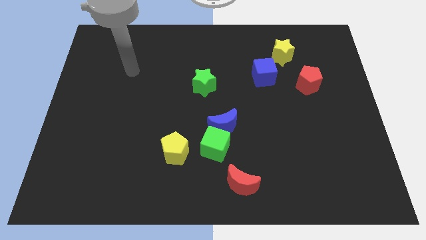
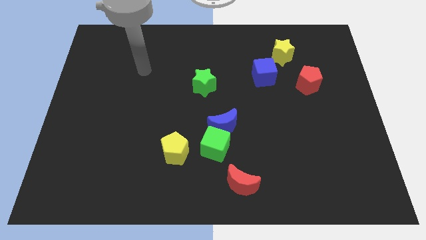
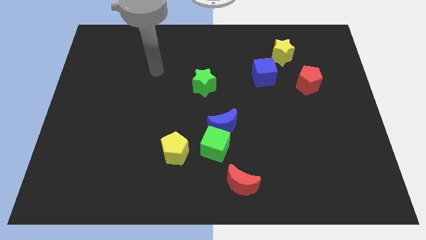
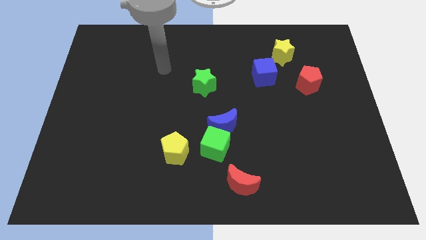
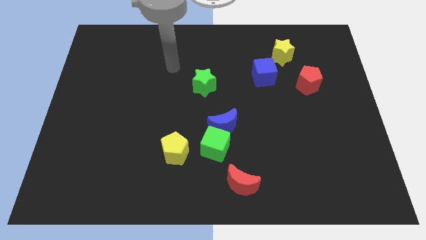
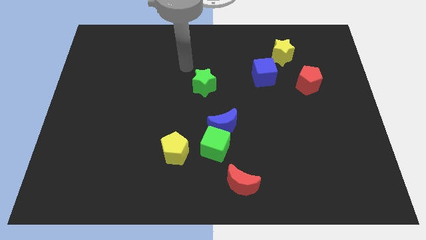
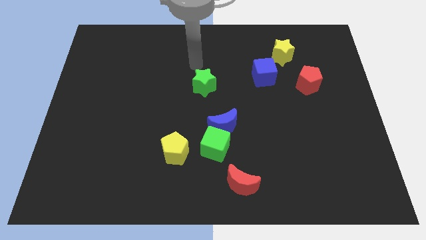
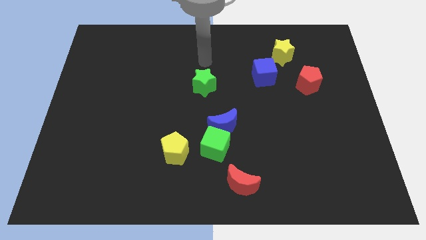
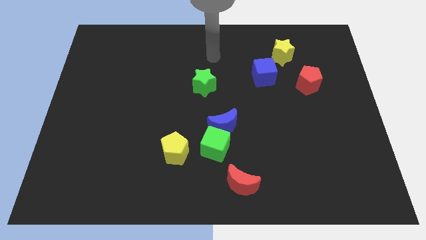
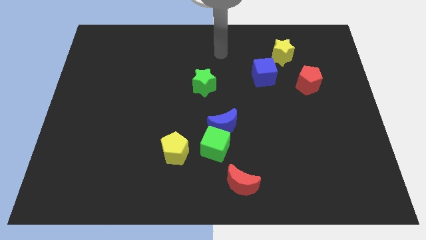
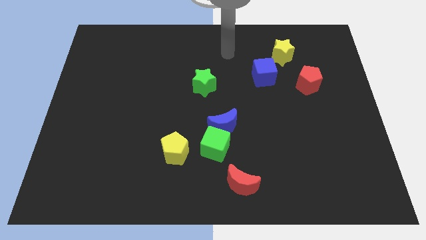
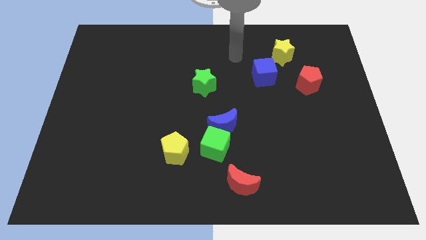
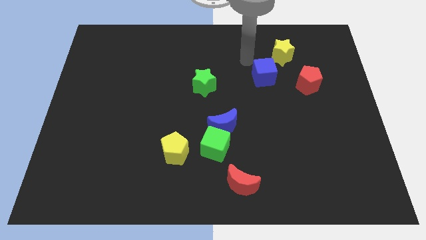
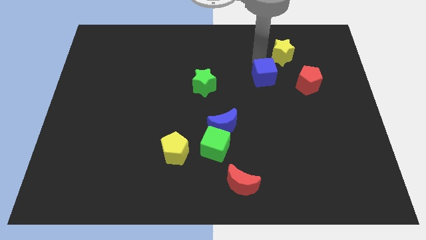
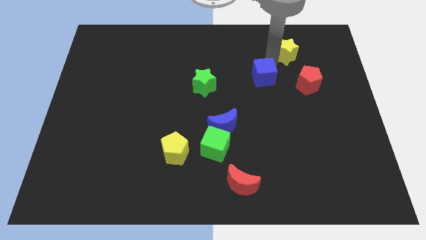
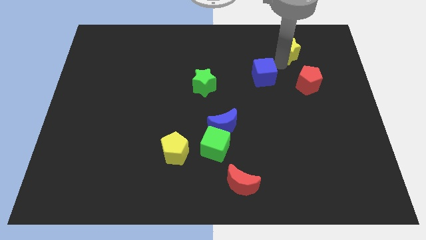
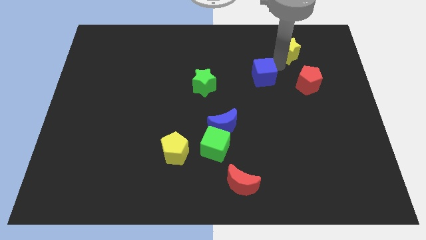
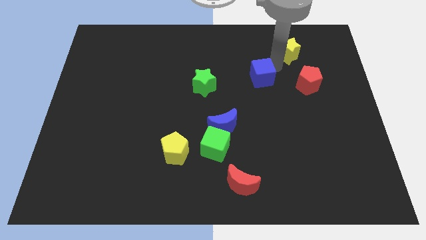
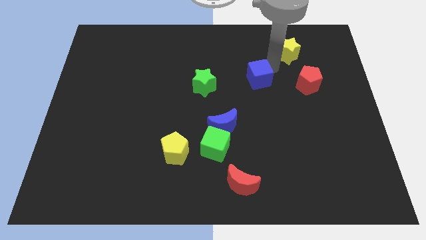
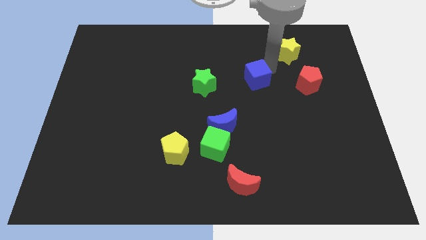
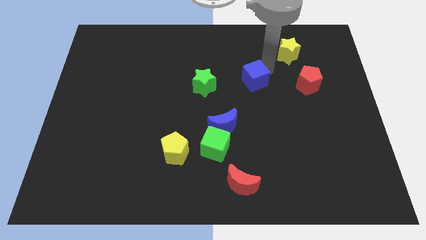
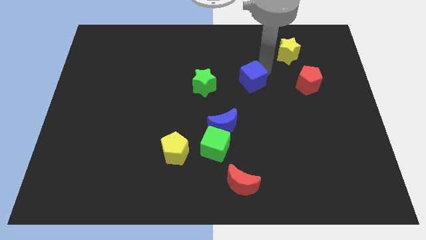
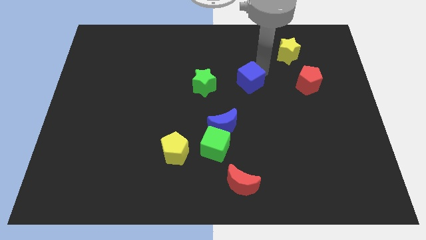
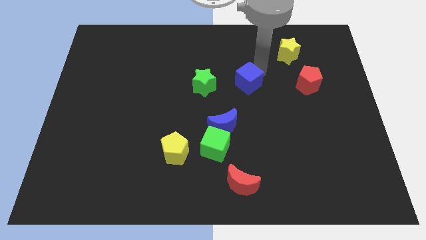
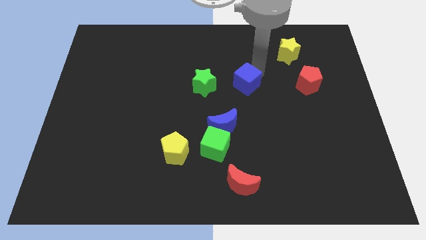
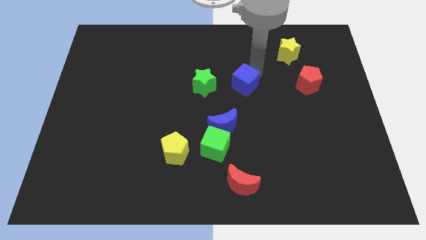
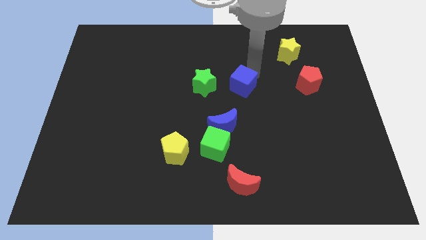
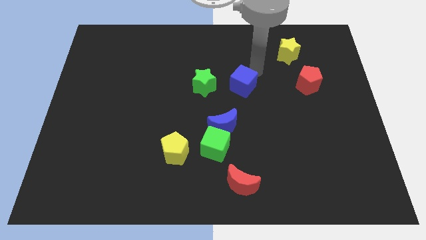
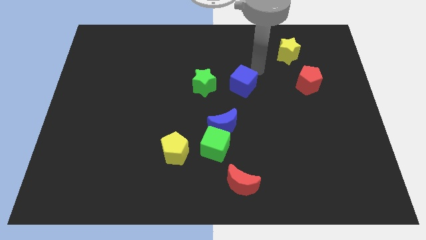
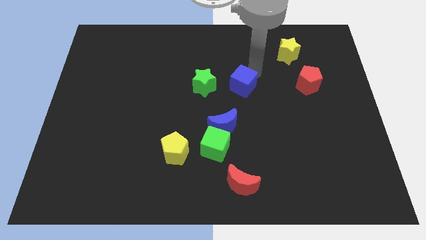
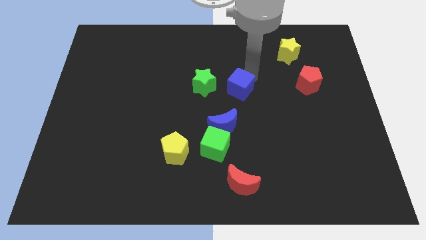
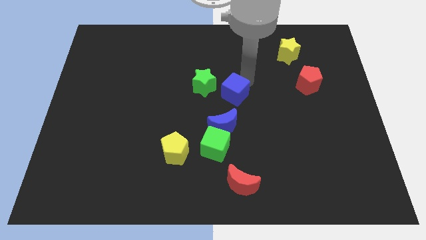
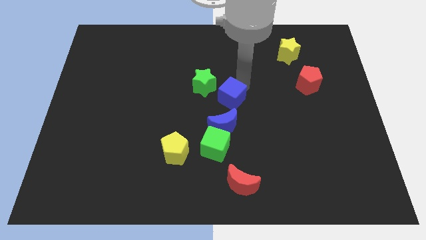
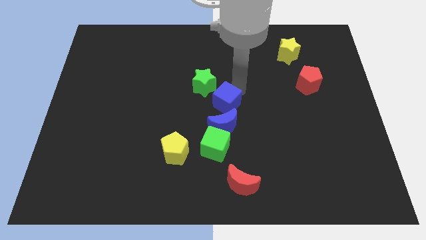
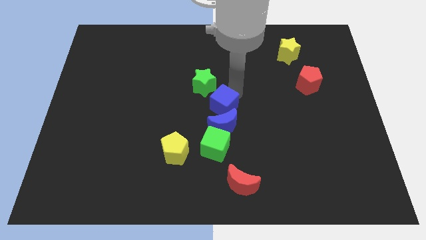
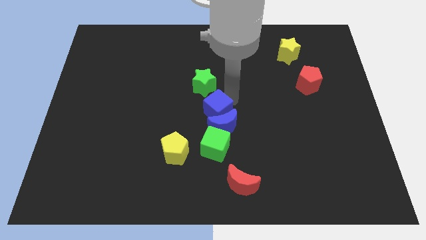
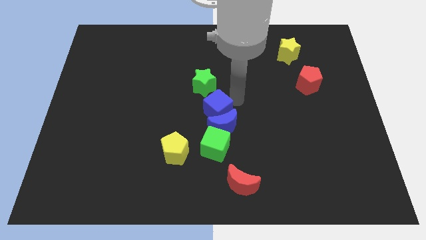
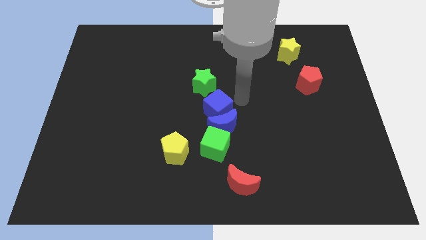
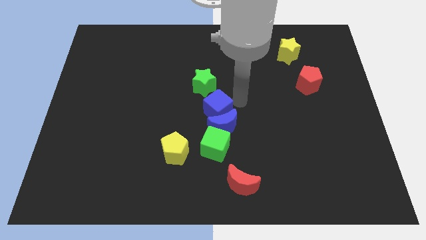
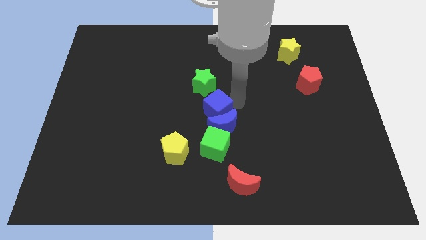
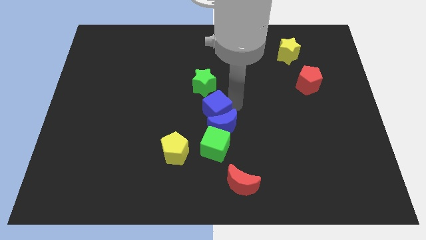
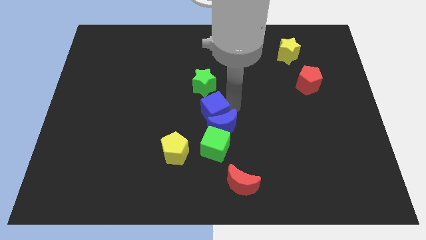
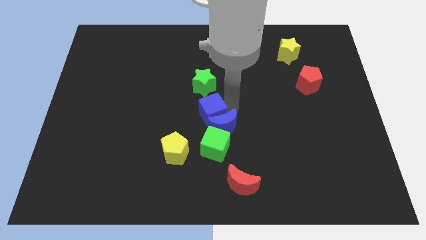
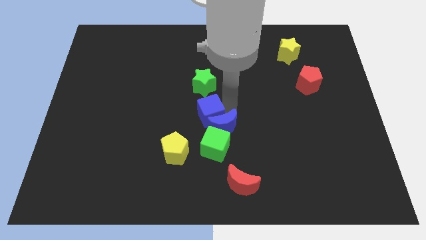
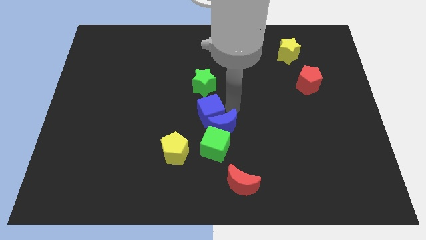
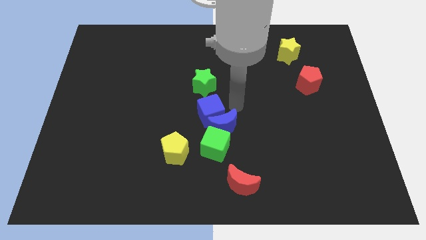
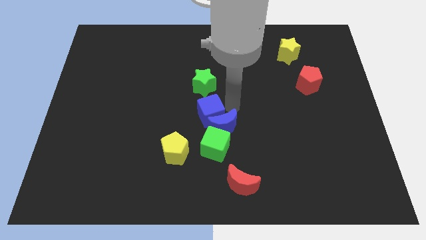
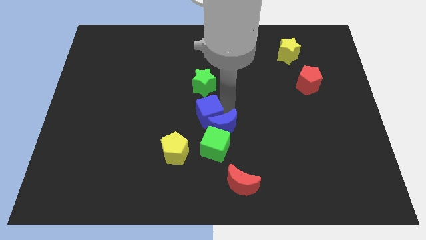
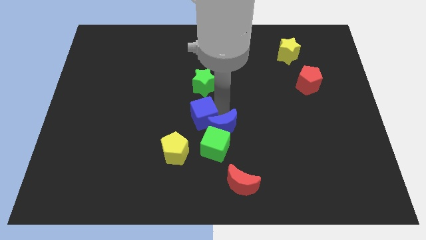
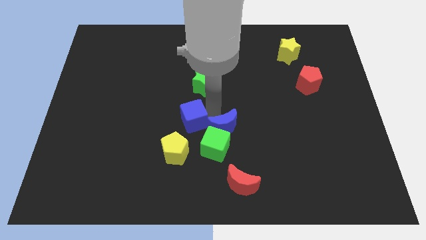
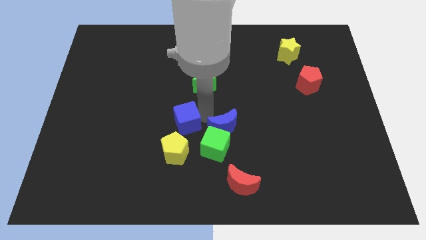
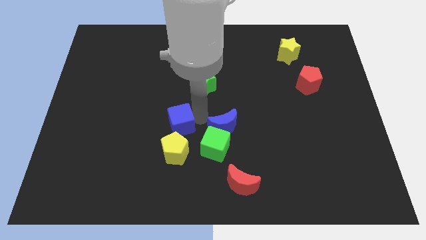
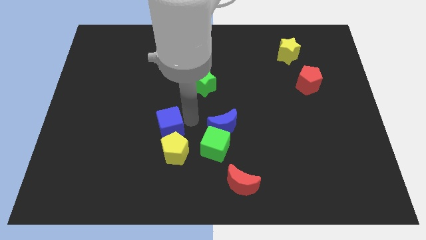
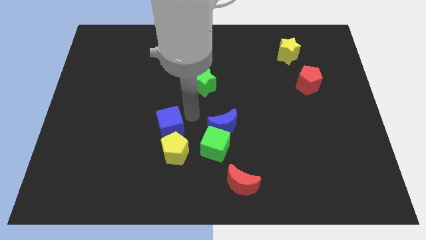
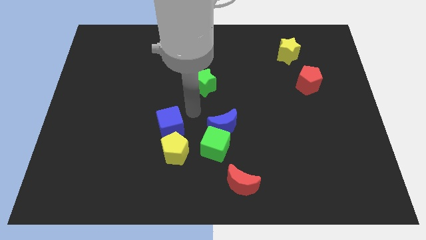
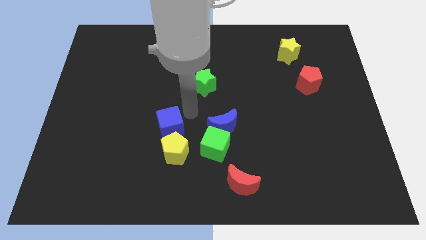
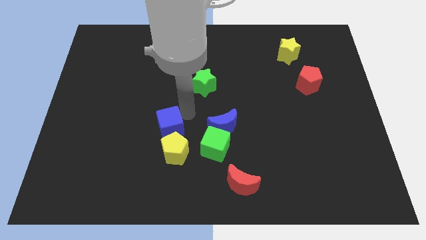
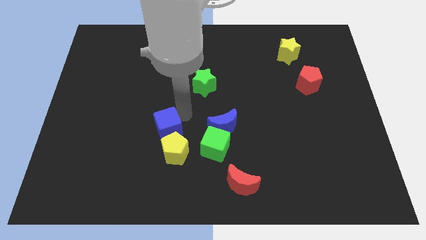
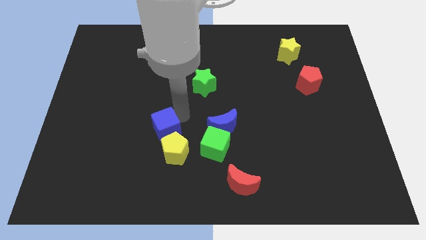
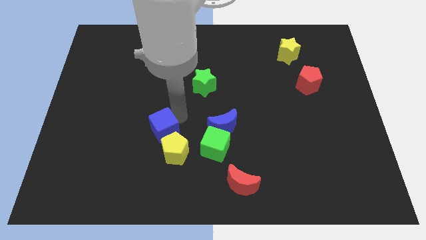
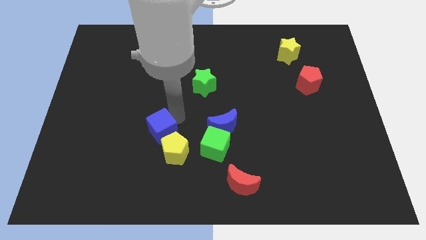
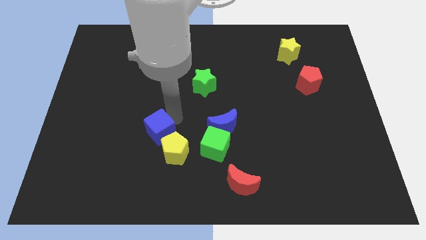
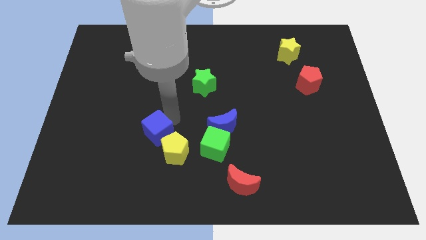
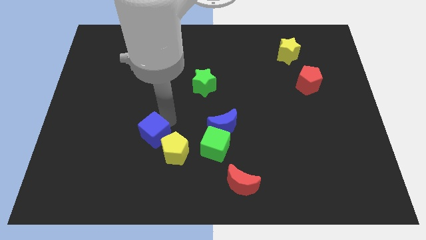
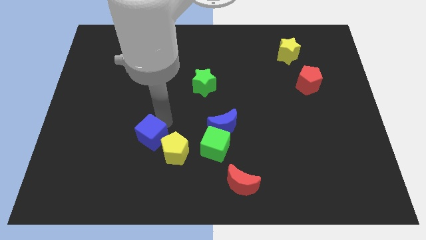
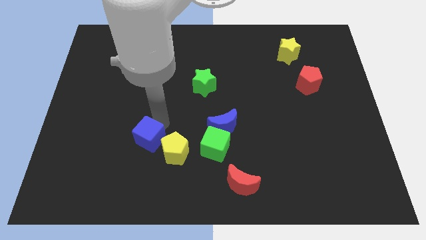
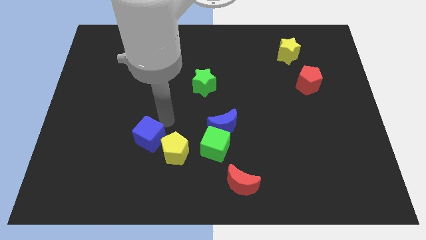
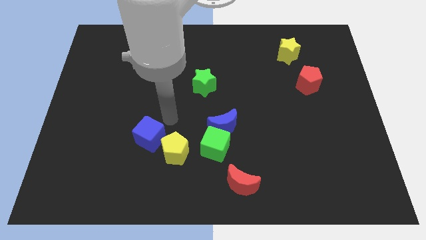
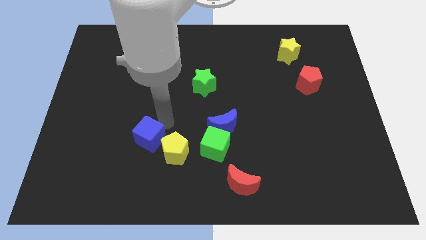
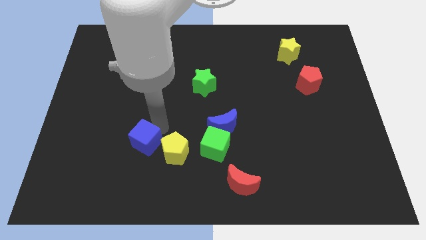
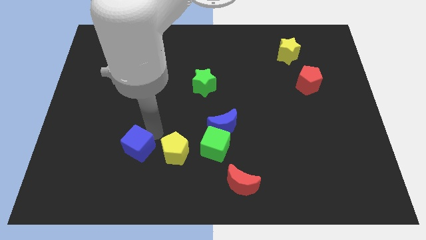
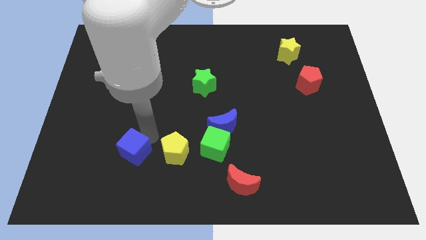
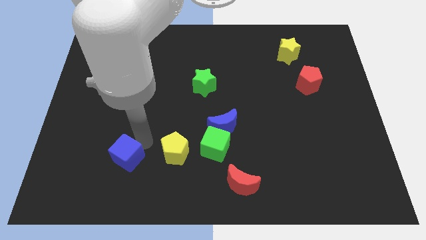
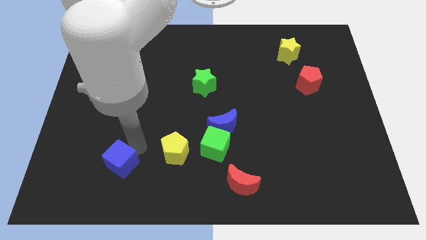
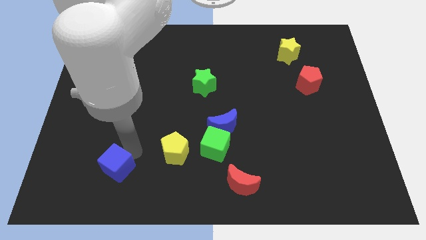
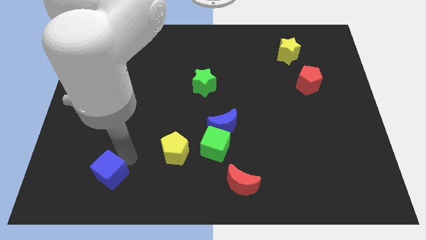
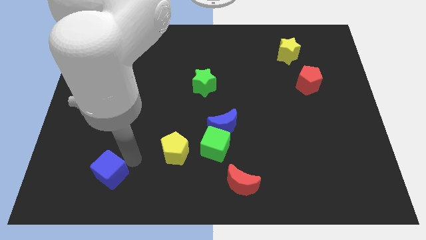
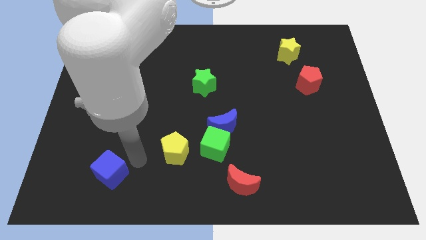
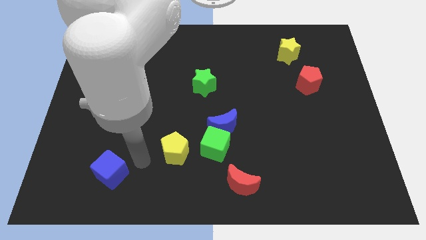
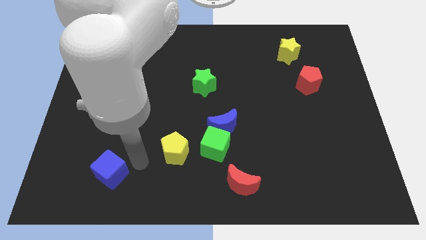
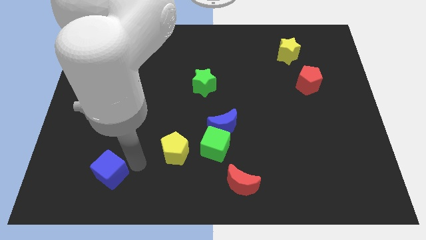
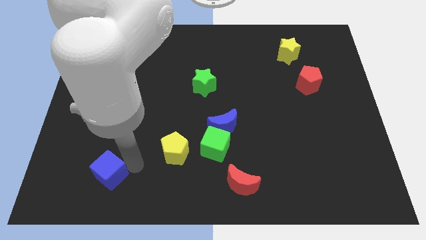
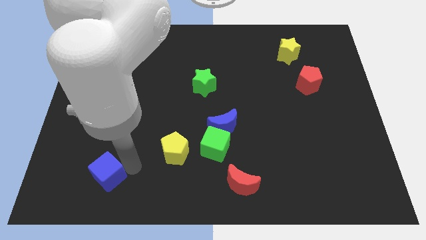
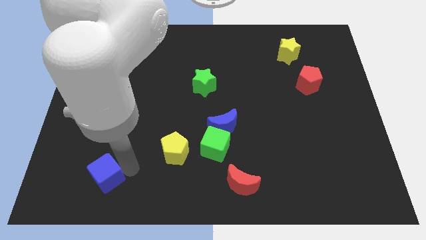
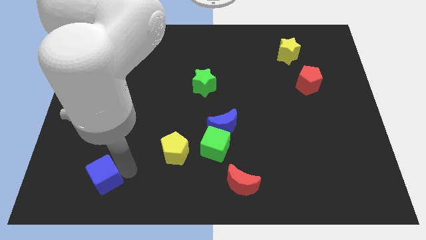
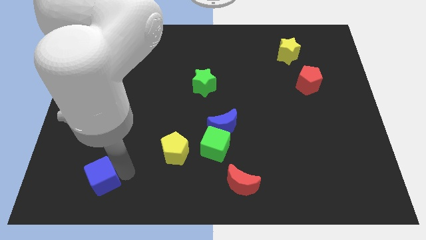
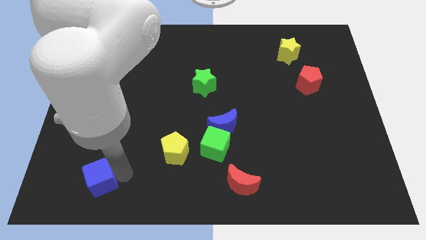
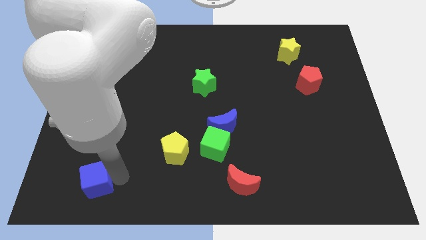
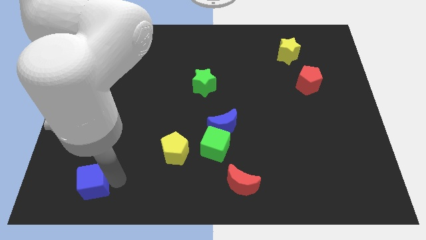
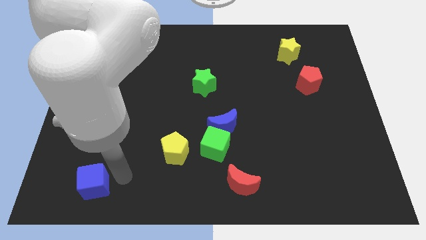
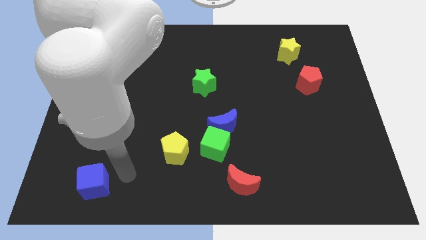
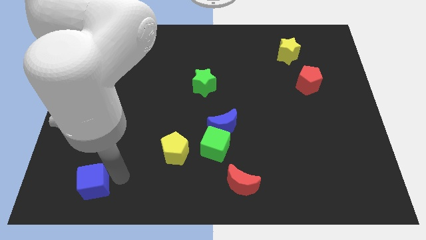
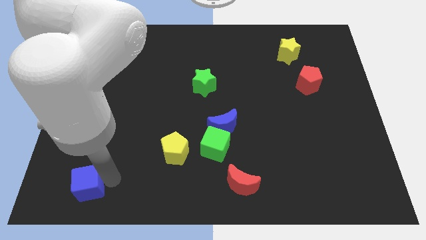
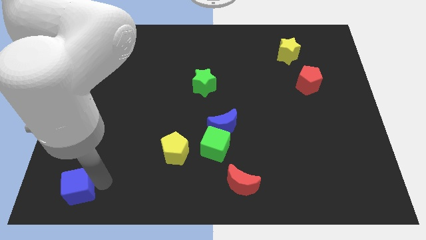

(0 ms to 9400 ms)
put the blue cube to the bottom left of the board
